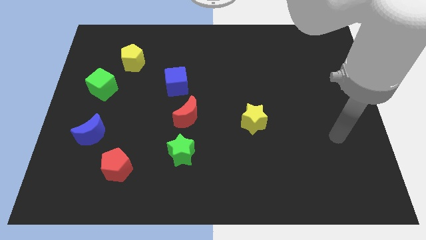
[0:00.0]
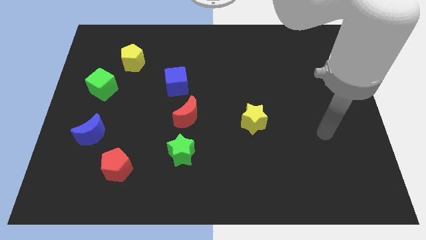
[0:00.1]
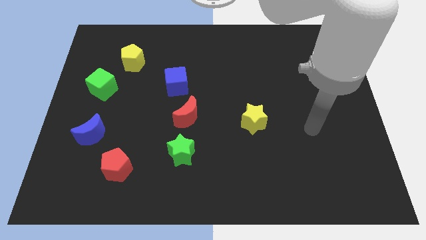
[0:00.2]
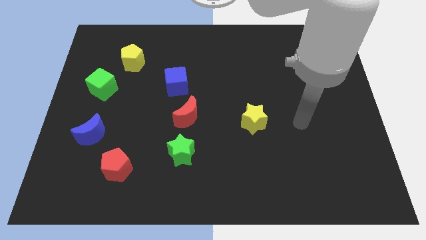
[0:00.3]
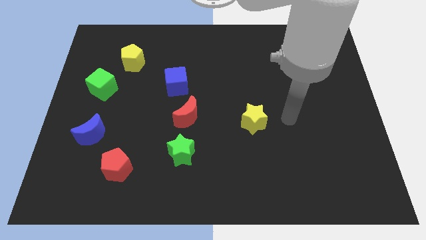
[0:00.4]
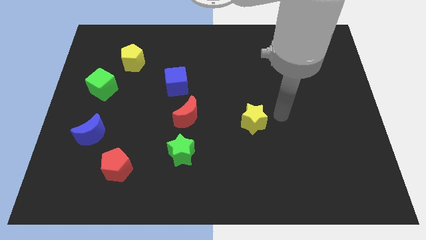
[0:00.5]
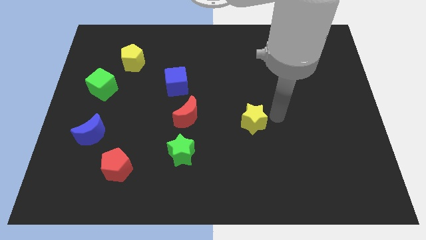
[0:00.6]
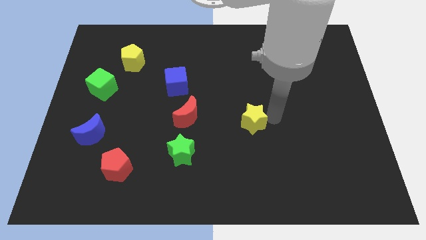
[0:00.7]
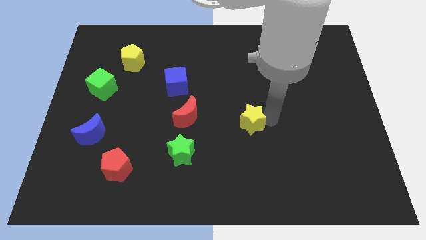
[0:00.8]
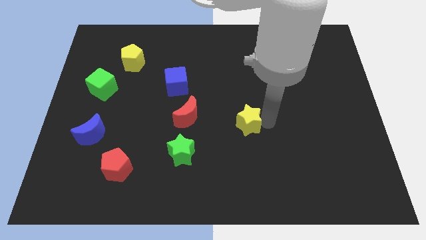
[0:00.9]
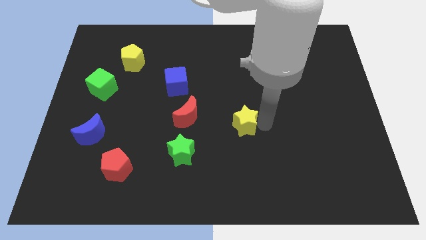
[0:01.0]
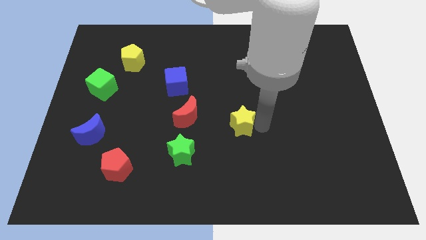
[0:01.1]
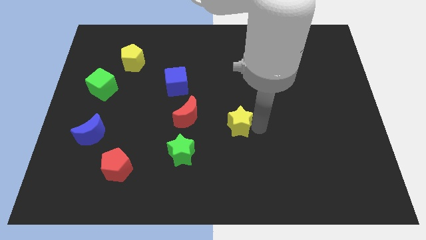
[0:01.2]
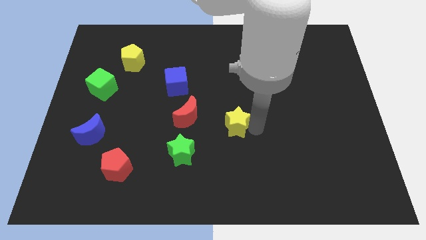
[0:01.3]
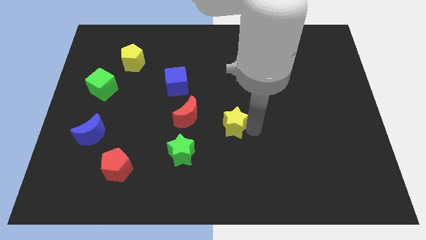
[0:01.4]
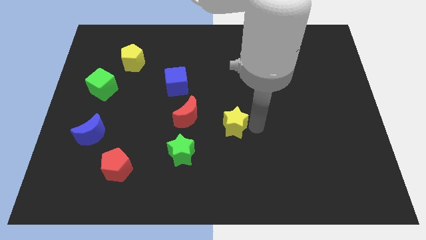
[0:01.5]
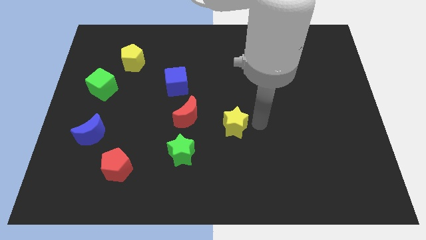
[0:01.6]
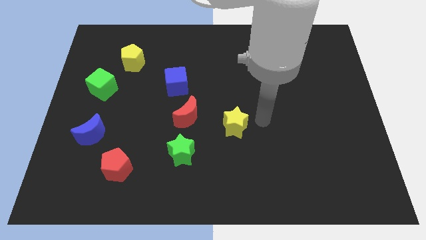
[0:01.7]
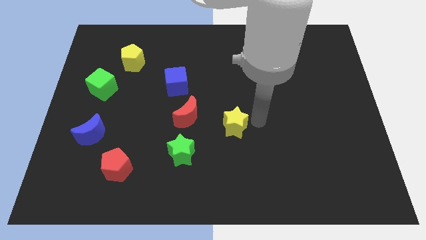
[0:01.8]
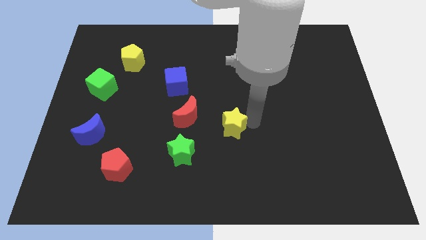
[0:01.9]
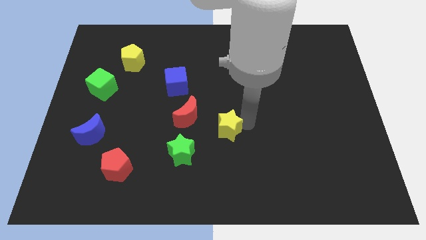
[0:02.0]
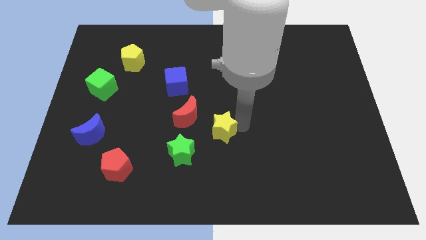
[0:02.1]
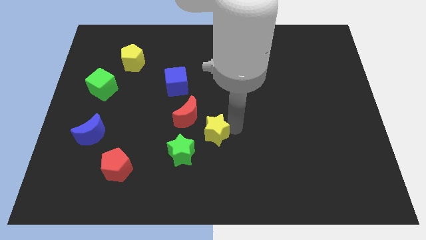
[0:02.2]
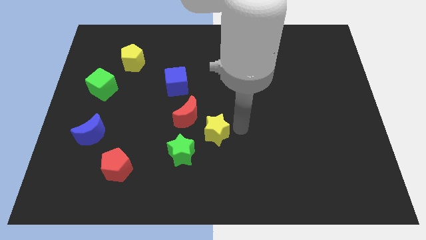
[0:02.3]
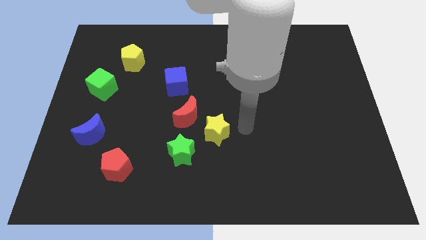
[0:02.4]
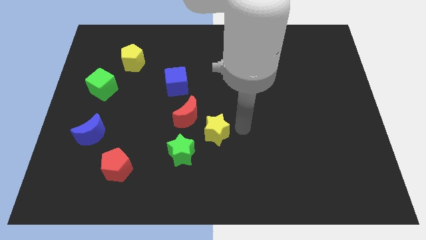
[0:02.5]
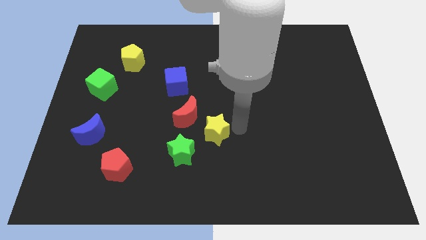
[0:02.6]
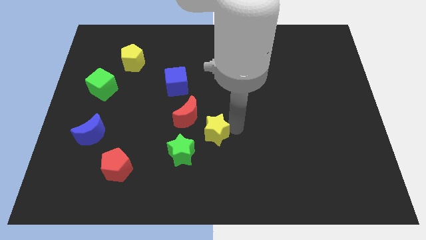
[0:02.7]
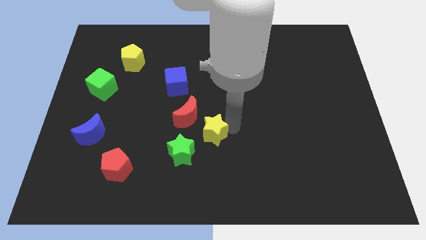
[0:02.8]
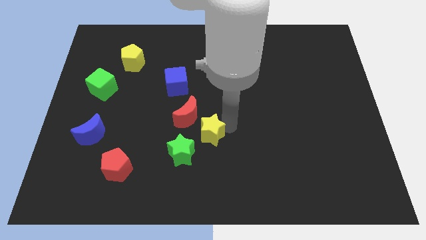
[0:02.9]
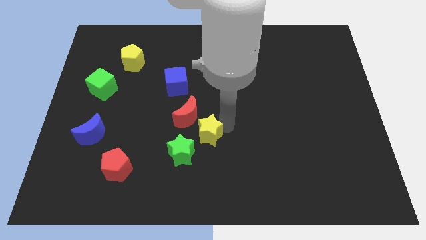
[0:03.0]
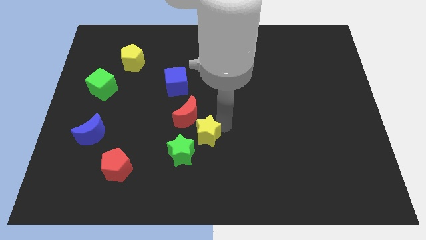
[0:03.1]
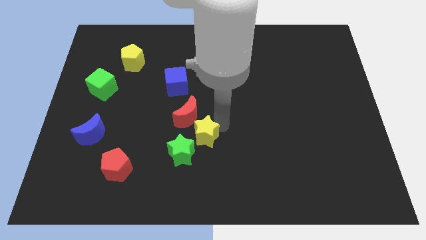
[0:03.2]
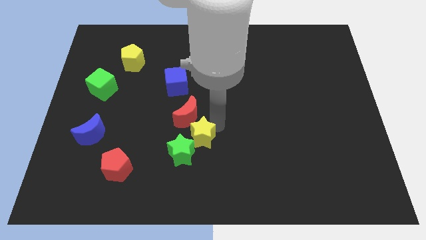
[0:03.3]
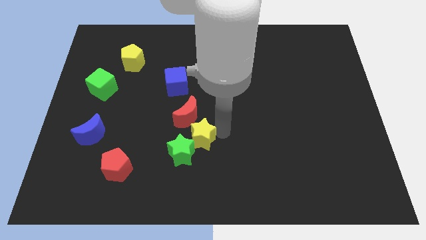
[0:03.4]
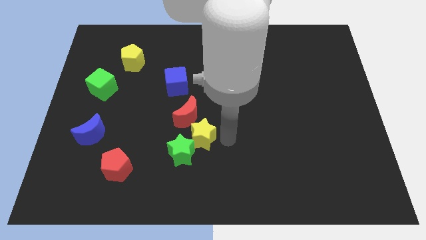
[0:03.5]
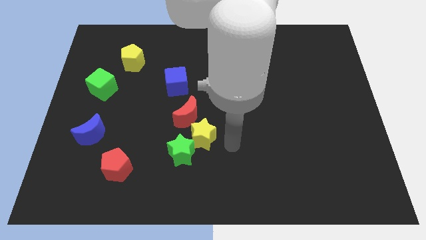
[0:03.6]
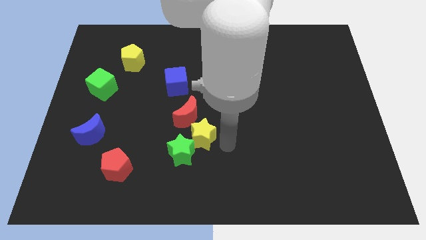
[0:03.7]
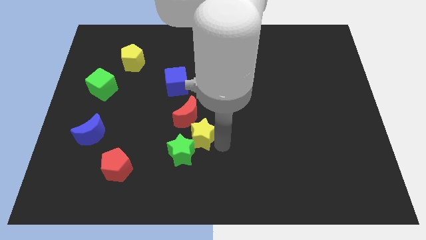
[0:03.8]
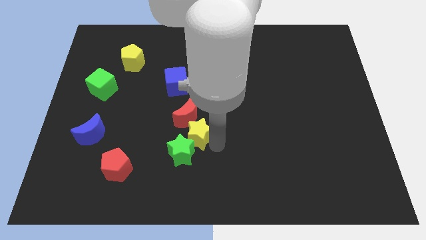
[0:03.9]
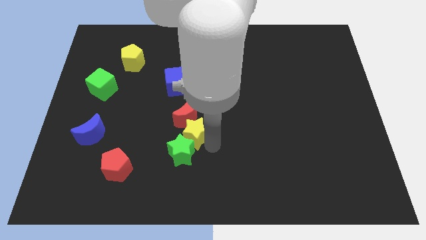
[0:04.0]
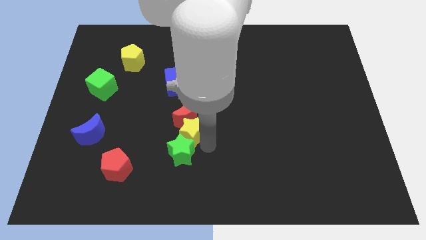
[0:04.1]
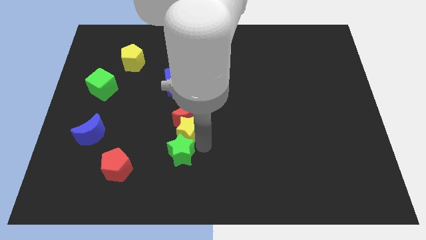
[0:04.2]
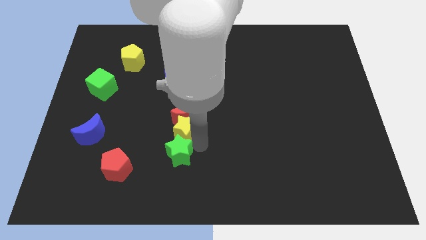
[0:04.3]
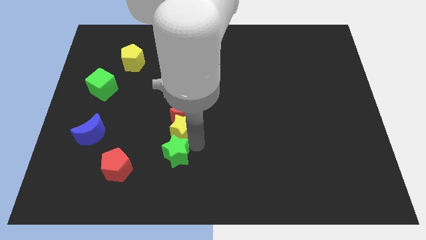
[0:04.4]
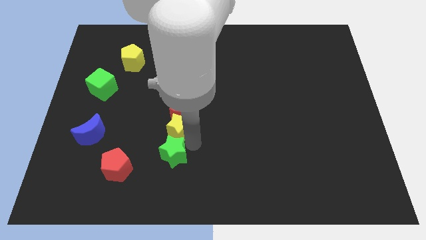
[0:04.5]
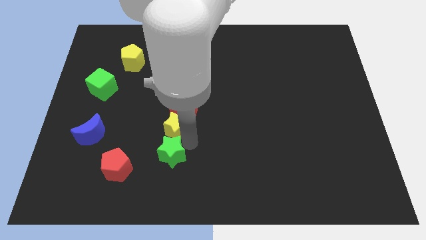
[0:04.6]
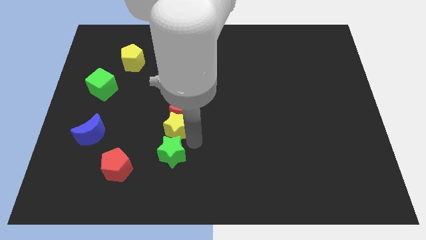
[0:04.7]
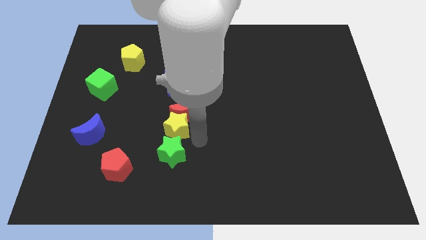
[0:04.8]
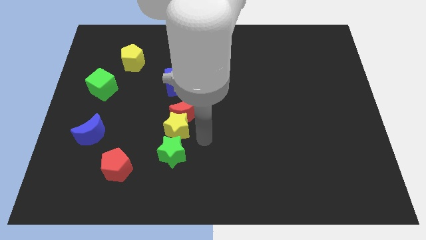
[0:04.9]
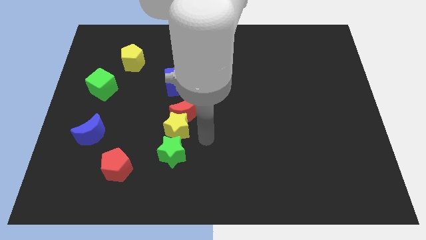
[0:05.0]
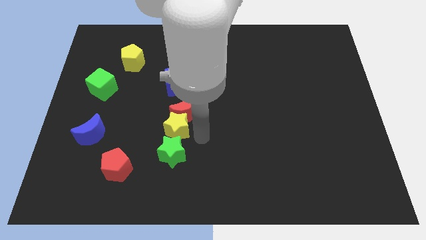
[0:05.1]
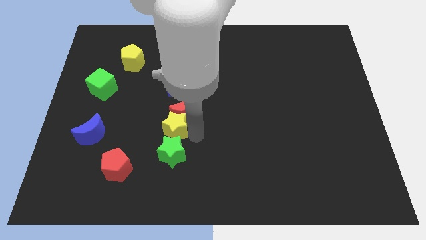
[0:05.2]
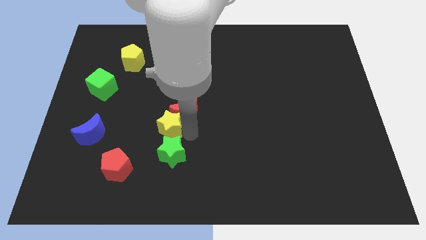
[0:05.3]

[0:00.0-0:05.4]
put the yellow star left of the red moon
